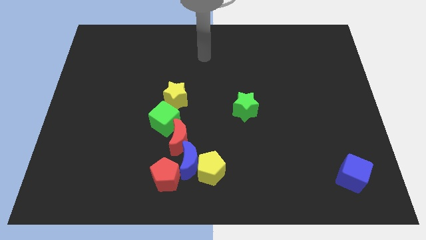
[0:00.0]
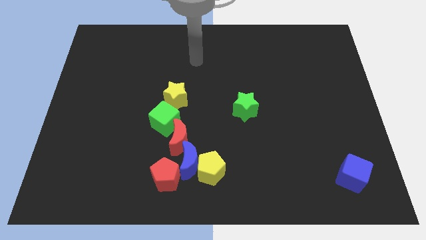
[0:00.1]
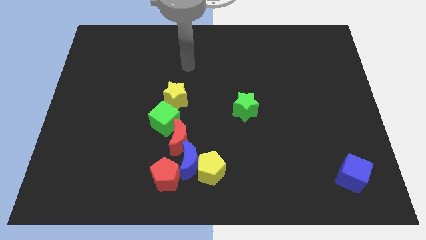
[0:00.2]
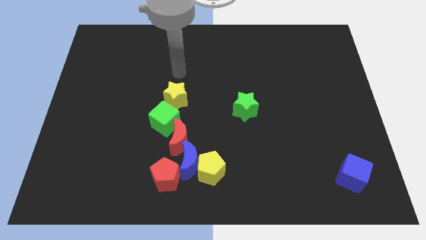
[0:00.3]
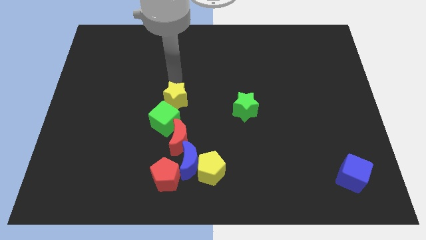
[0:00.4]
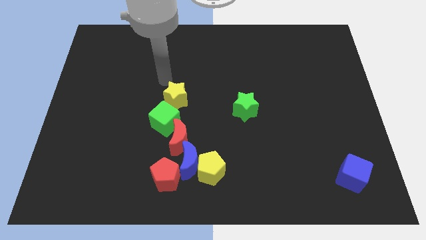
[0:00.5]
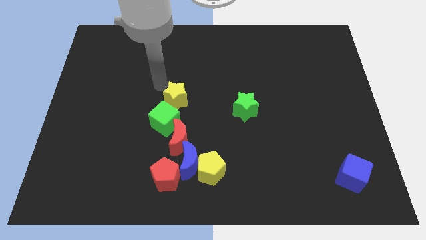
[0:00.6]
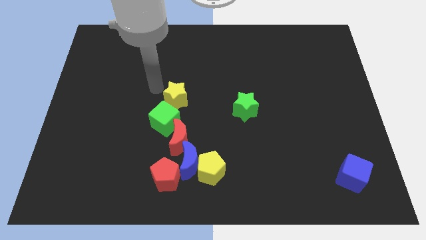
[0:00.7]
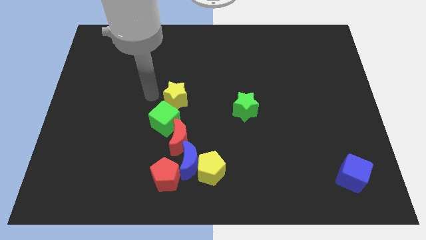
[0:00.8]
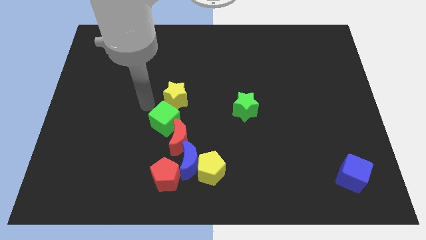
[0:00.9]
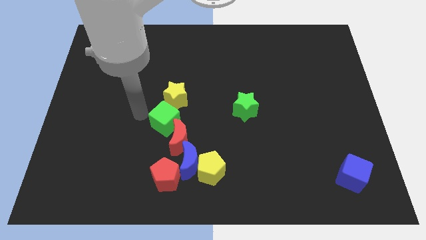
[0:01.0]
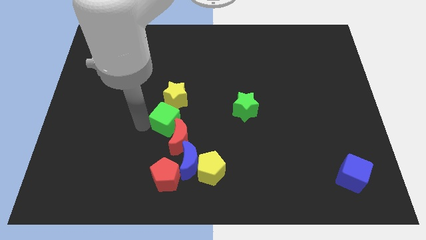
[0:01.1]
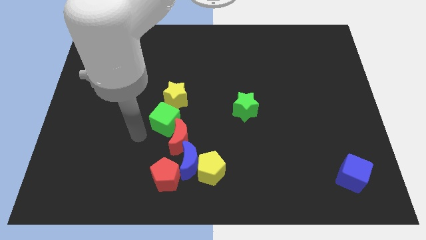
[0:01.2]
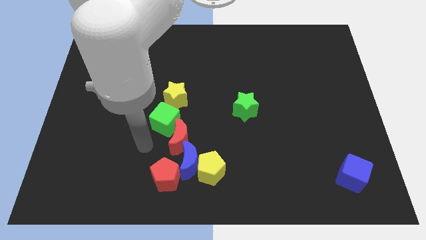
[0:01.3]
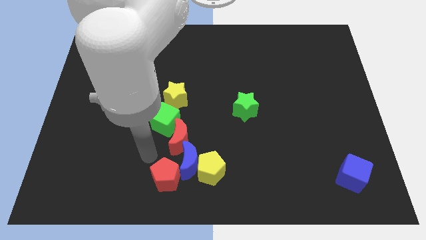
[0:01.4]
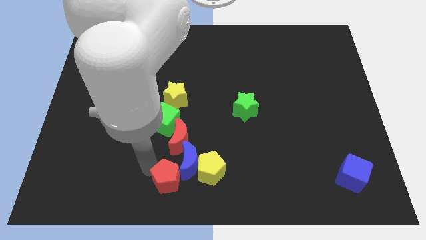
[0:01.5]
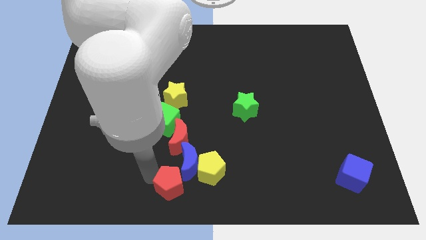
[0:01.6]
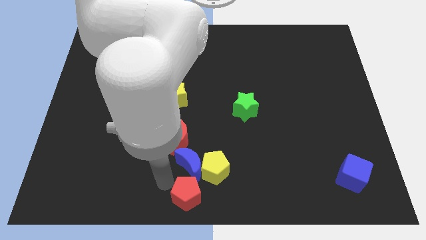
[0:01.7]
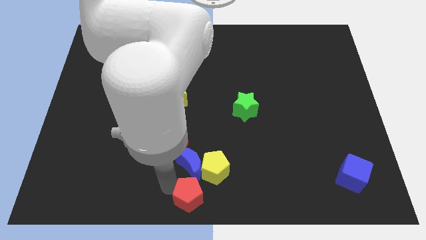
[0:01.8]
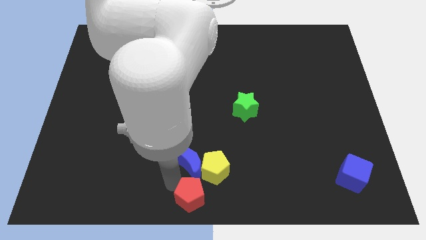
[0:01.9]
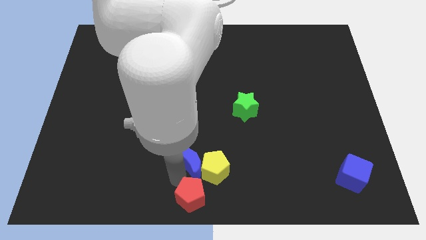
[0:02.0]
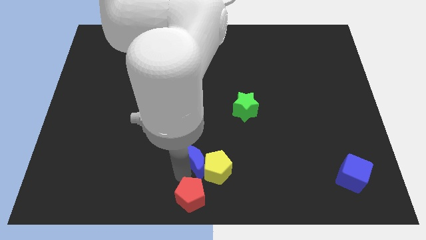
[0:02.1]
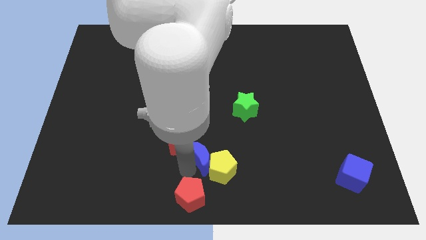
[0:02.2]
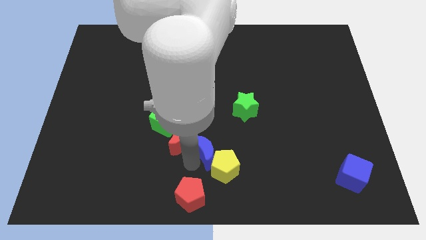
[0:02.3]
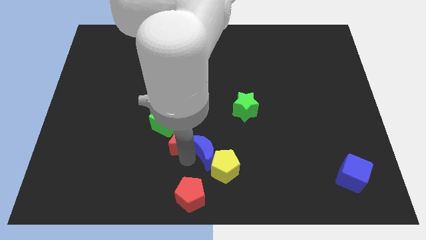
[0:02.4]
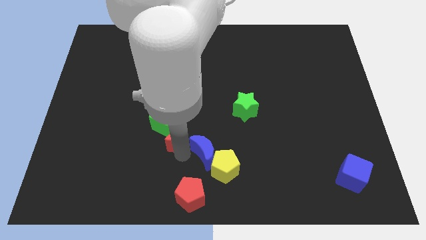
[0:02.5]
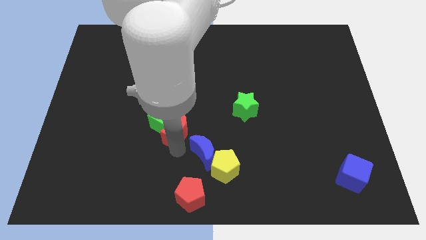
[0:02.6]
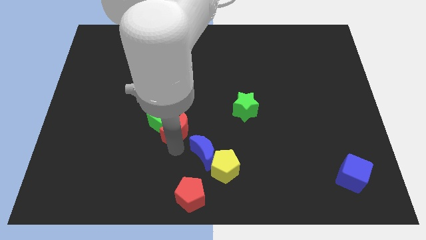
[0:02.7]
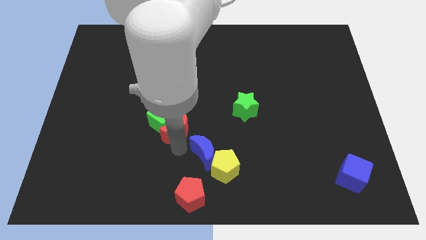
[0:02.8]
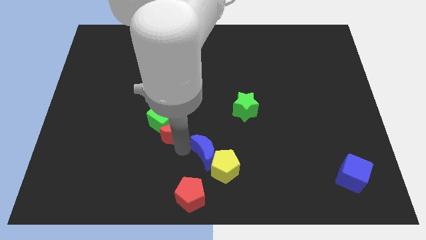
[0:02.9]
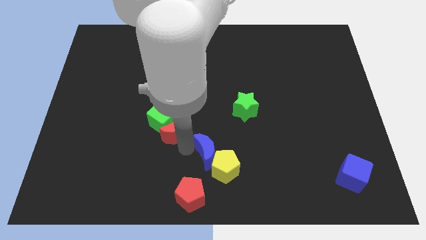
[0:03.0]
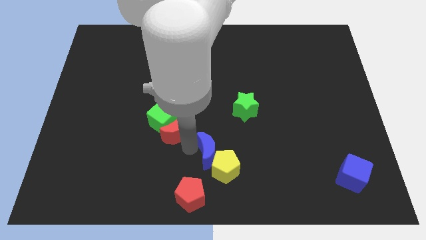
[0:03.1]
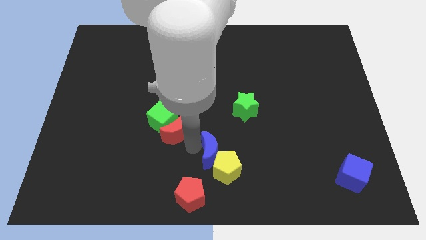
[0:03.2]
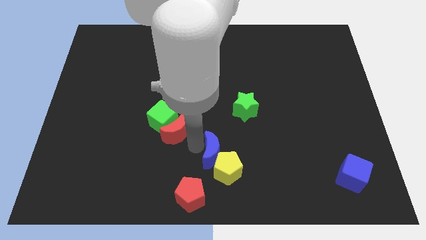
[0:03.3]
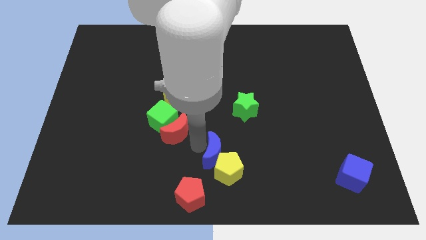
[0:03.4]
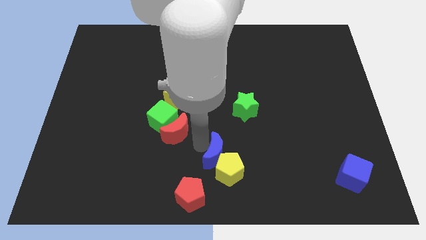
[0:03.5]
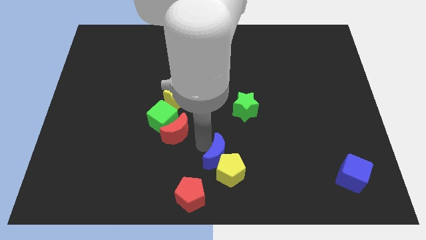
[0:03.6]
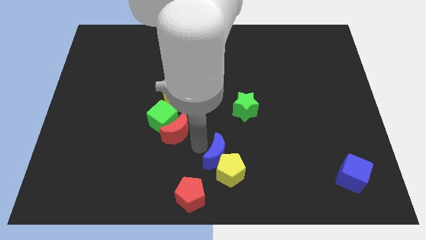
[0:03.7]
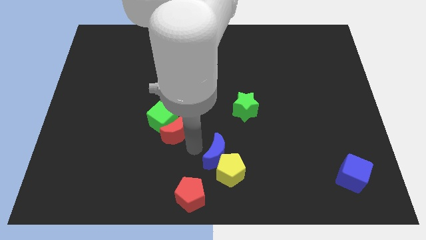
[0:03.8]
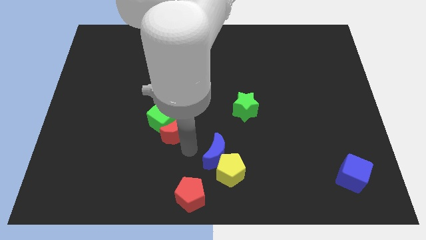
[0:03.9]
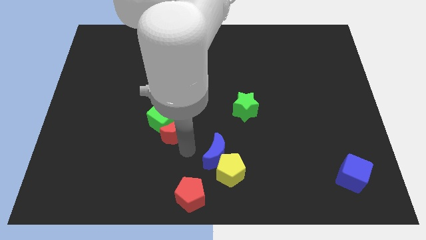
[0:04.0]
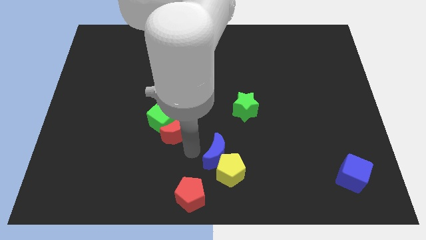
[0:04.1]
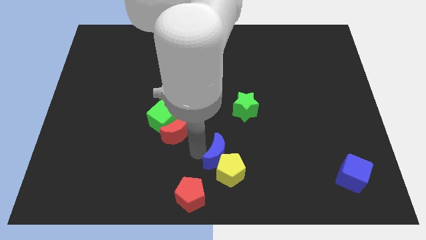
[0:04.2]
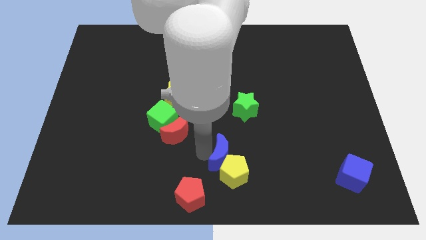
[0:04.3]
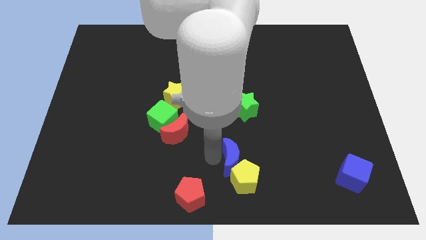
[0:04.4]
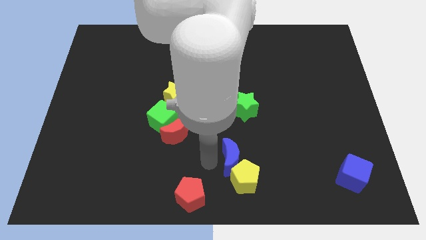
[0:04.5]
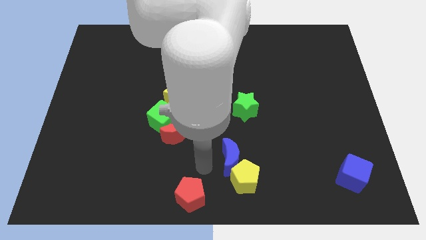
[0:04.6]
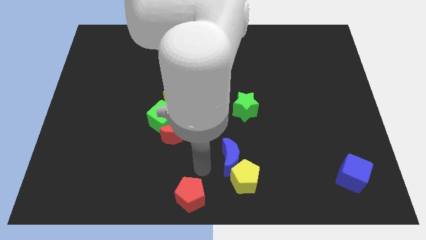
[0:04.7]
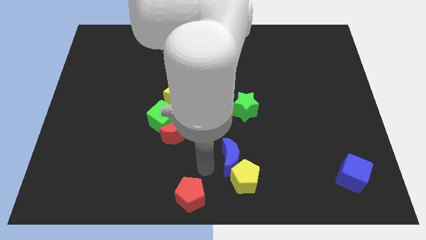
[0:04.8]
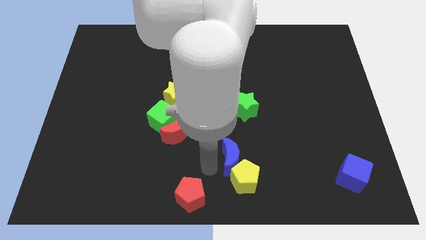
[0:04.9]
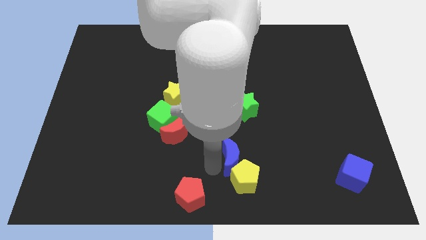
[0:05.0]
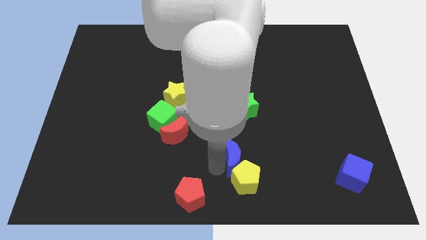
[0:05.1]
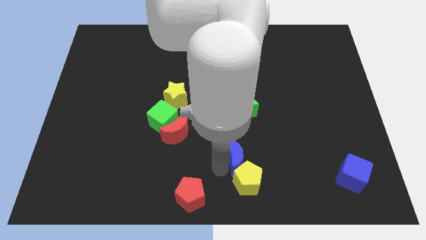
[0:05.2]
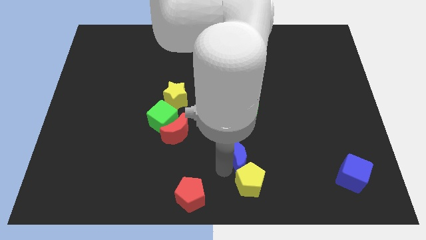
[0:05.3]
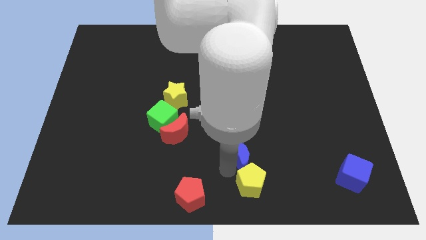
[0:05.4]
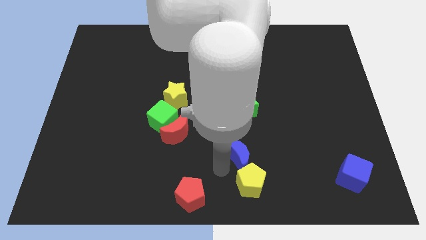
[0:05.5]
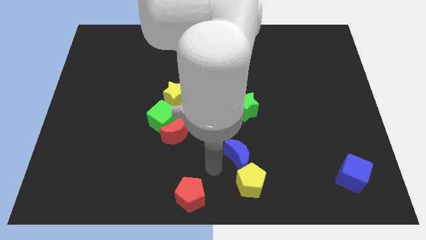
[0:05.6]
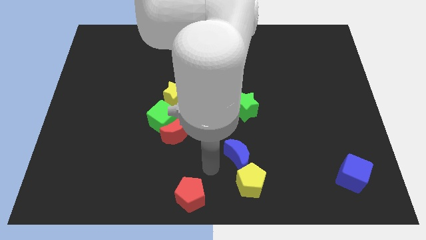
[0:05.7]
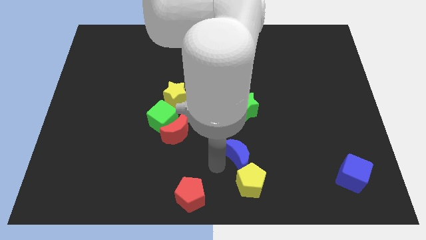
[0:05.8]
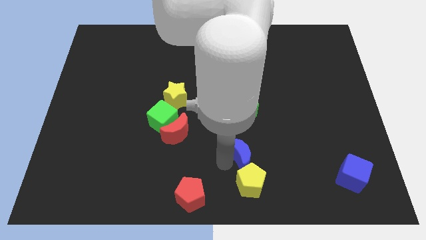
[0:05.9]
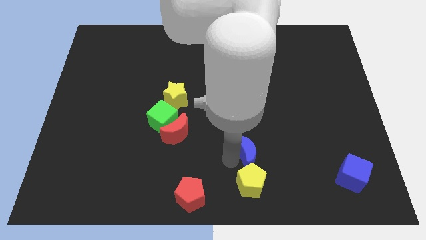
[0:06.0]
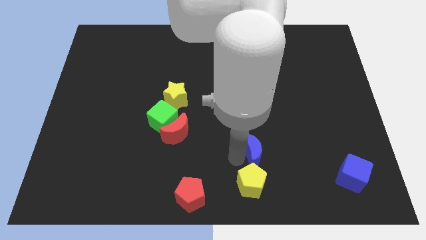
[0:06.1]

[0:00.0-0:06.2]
separate the blue moon from the yellow pentagon, red pentagon, and red moon

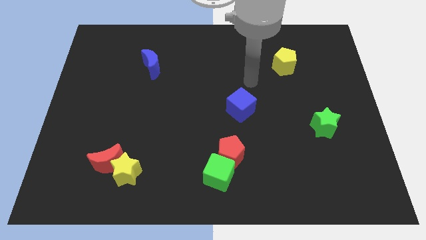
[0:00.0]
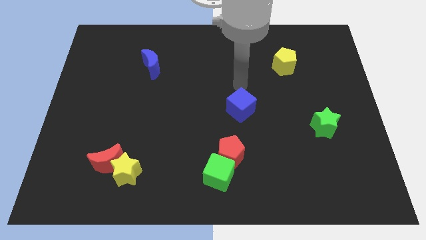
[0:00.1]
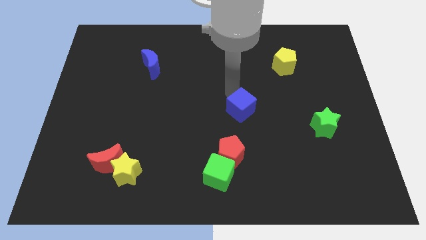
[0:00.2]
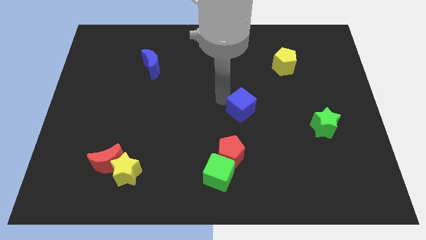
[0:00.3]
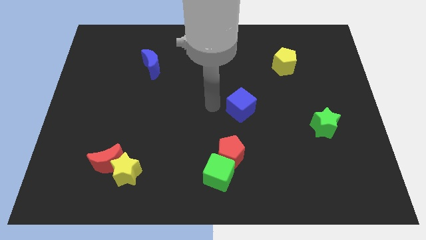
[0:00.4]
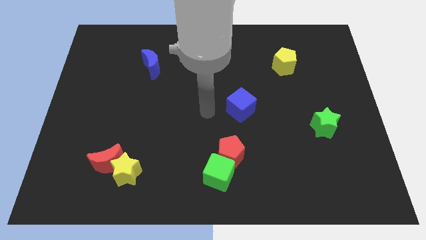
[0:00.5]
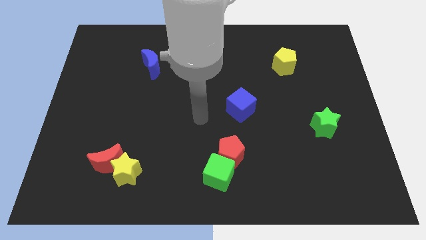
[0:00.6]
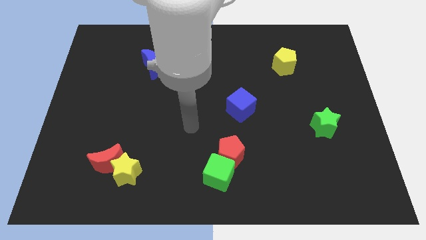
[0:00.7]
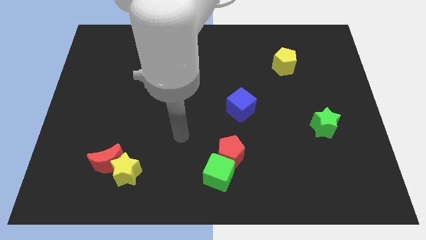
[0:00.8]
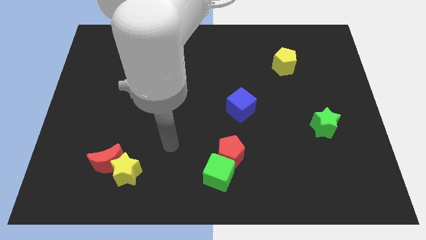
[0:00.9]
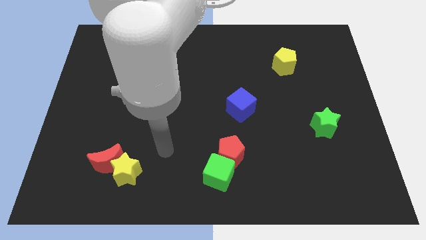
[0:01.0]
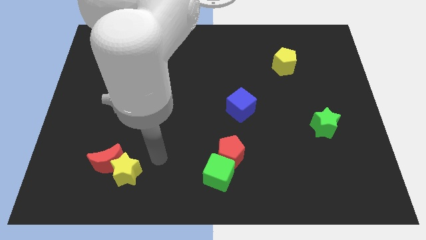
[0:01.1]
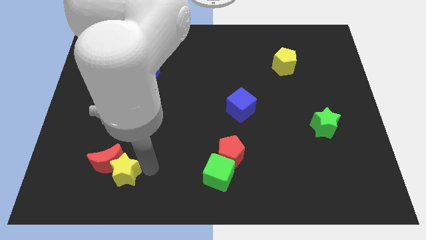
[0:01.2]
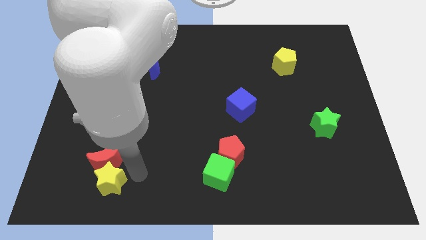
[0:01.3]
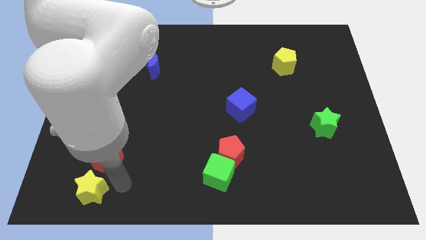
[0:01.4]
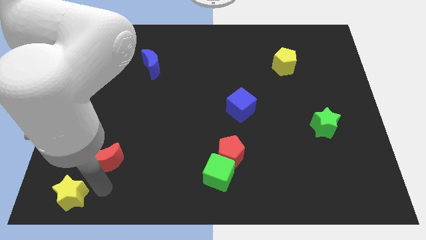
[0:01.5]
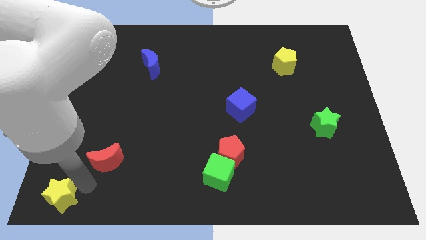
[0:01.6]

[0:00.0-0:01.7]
separate the red moon from the yellow star

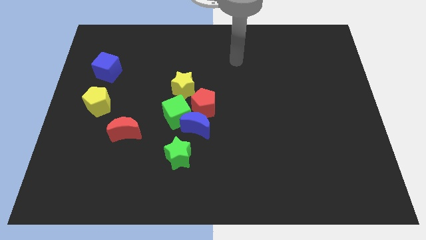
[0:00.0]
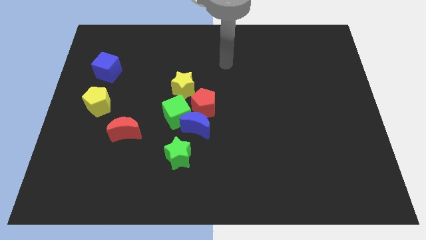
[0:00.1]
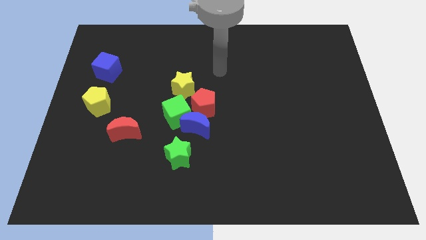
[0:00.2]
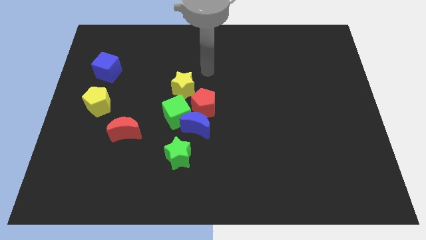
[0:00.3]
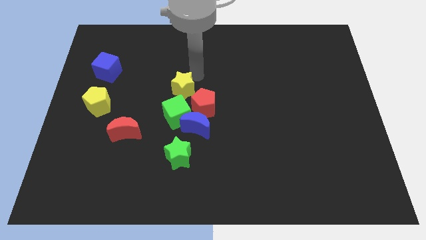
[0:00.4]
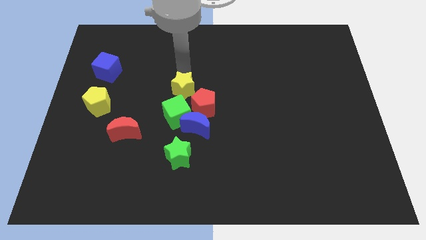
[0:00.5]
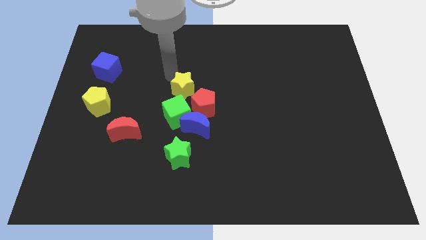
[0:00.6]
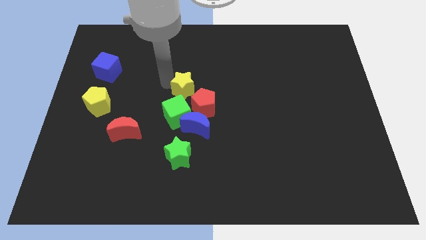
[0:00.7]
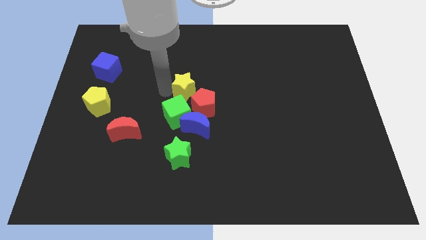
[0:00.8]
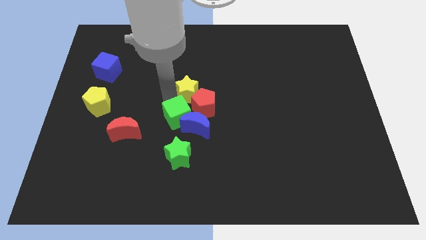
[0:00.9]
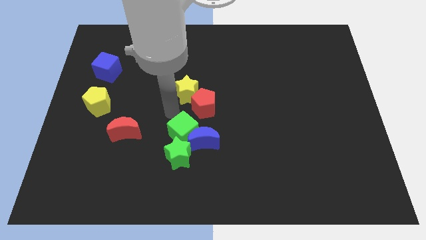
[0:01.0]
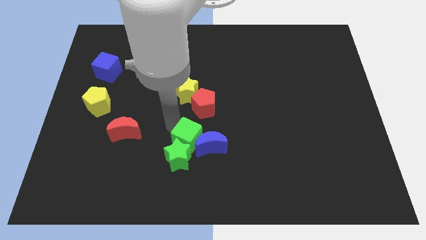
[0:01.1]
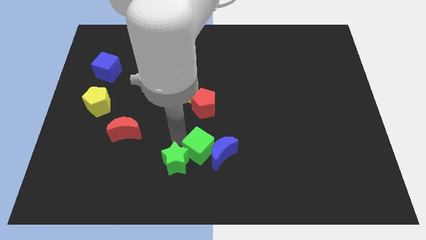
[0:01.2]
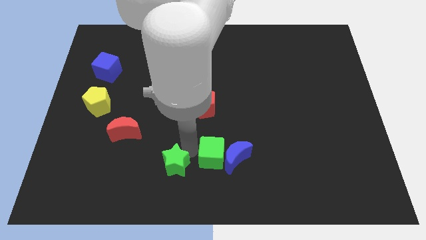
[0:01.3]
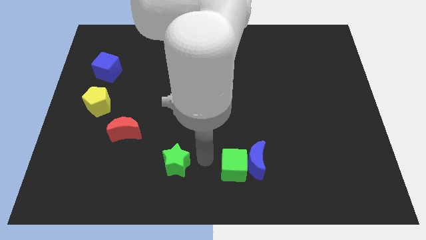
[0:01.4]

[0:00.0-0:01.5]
move the blue moon away from the group of blocks
